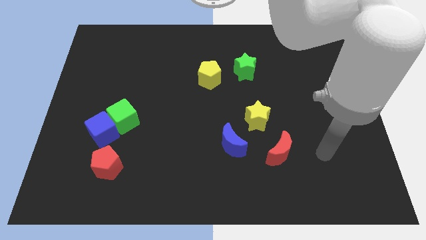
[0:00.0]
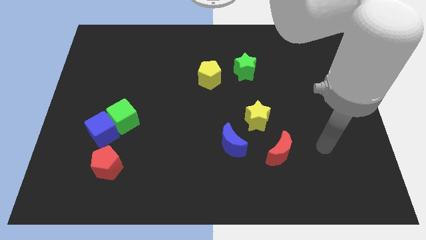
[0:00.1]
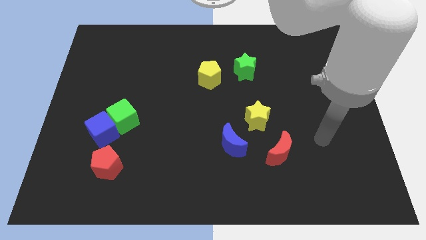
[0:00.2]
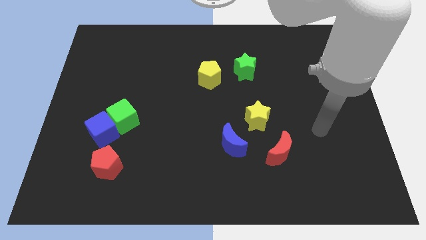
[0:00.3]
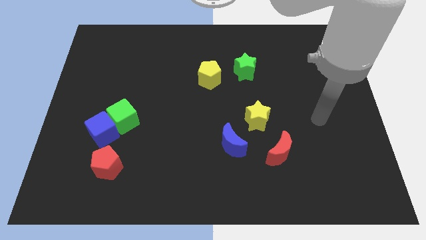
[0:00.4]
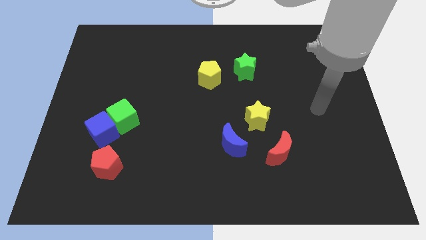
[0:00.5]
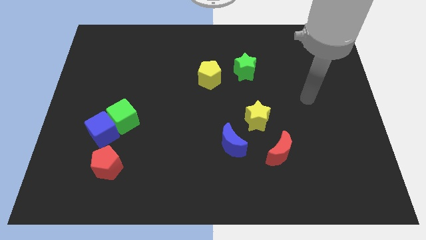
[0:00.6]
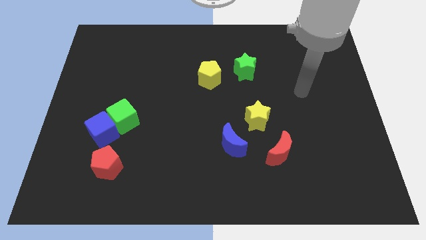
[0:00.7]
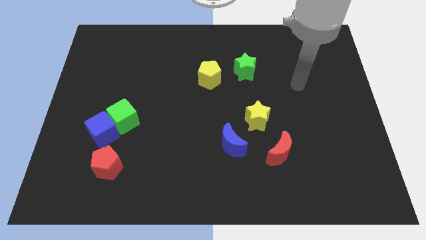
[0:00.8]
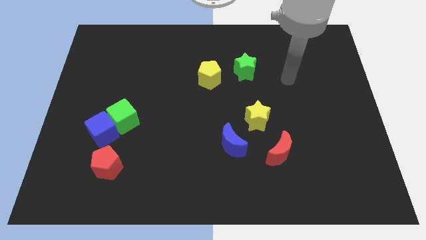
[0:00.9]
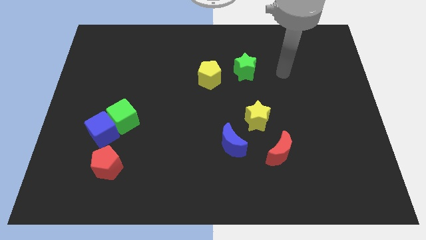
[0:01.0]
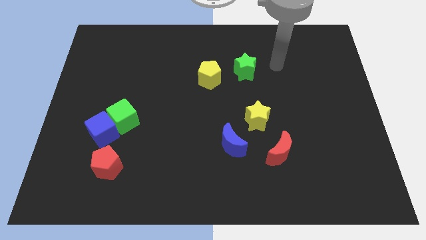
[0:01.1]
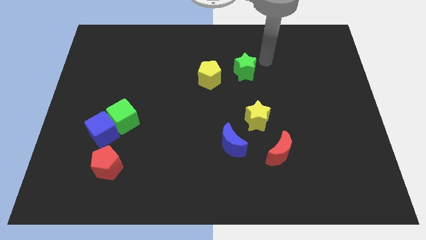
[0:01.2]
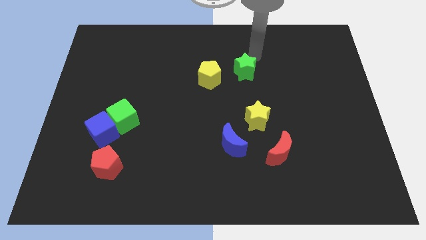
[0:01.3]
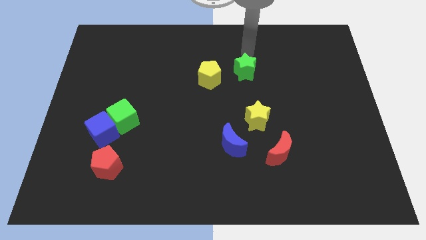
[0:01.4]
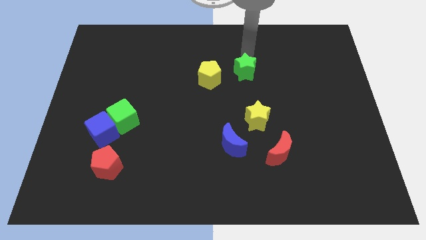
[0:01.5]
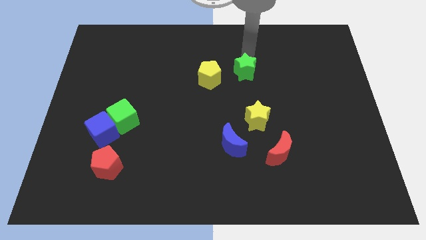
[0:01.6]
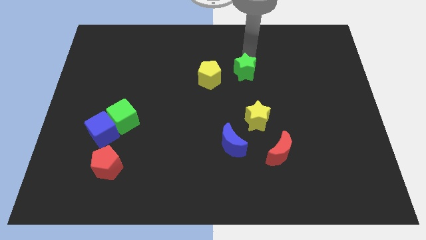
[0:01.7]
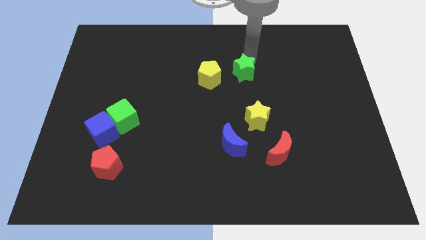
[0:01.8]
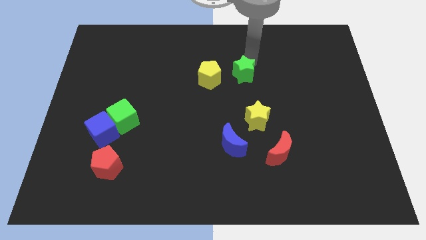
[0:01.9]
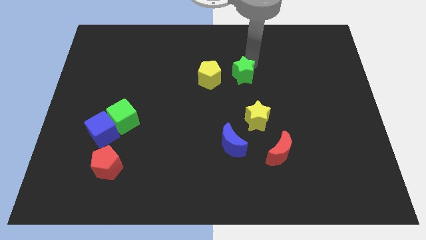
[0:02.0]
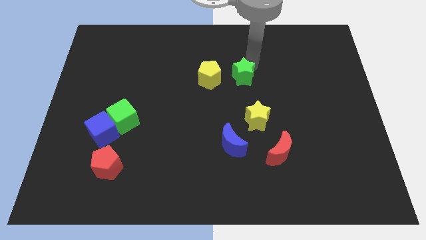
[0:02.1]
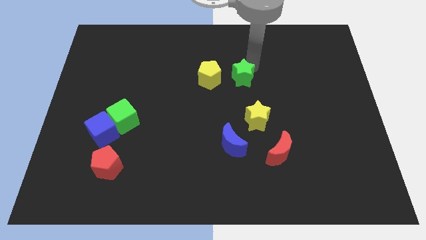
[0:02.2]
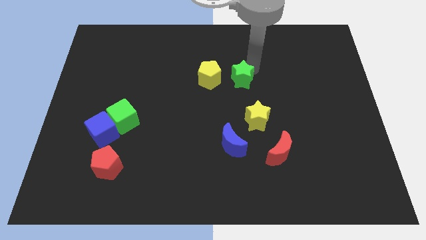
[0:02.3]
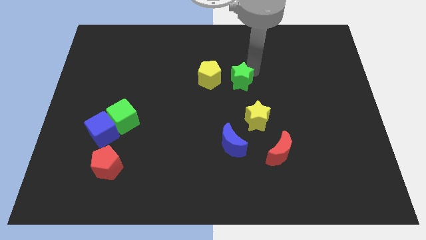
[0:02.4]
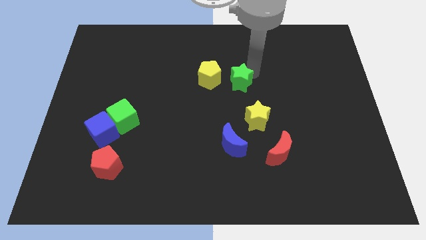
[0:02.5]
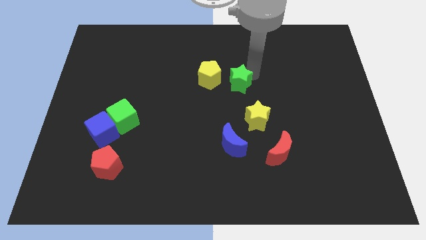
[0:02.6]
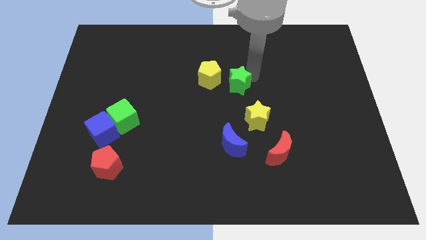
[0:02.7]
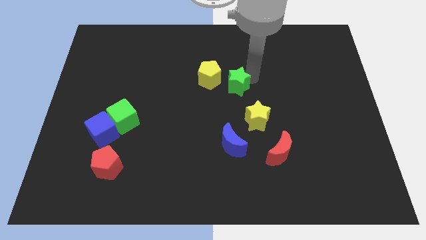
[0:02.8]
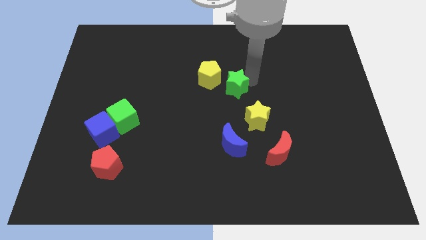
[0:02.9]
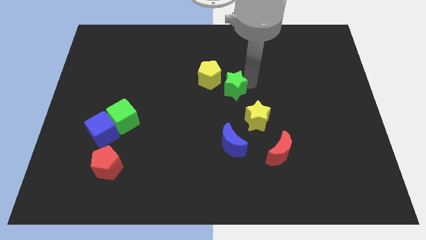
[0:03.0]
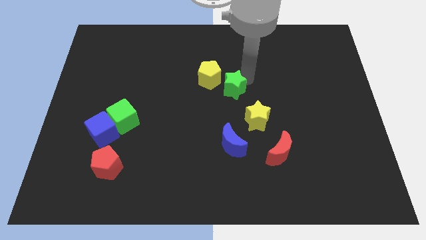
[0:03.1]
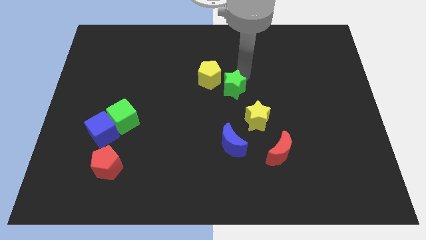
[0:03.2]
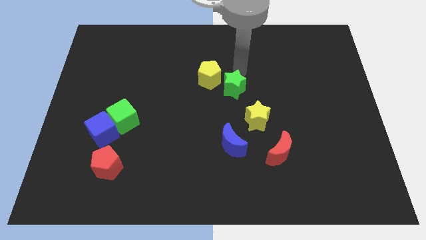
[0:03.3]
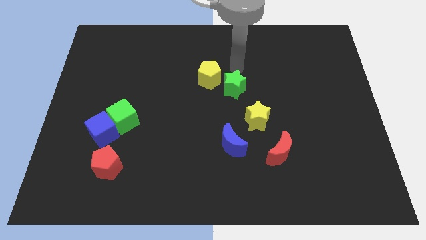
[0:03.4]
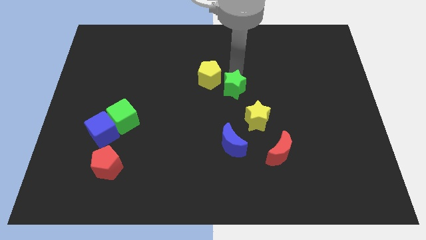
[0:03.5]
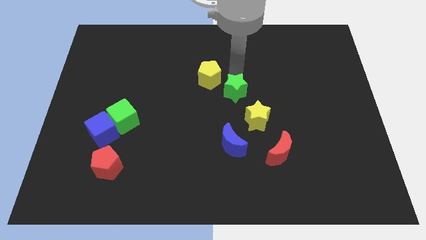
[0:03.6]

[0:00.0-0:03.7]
slide the green star a bit down

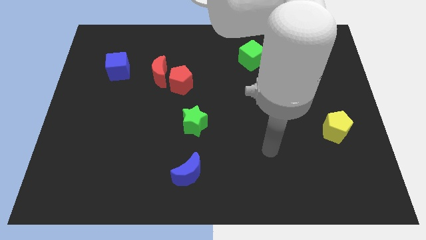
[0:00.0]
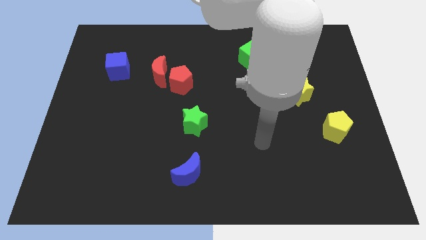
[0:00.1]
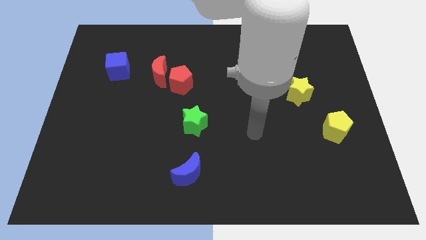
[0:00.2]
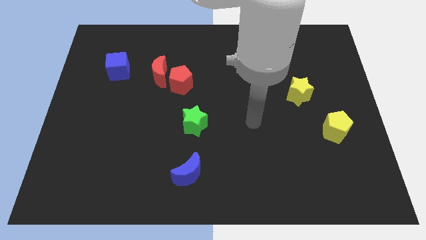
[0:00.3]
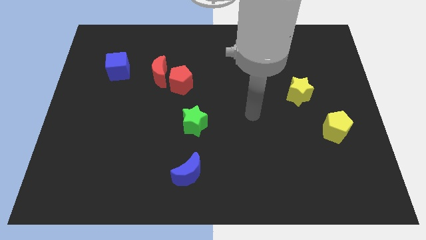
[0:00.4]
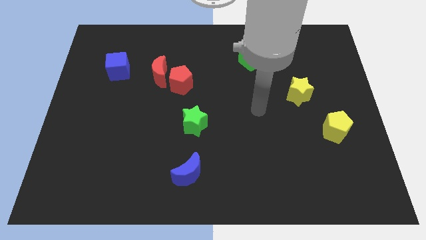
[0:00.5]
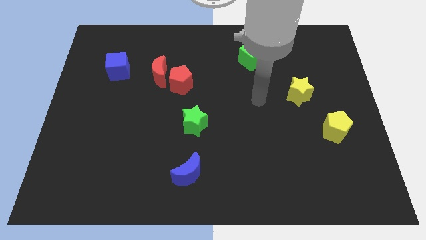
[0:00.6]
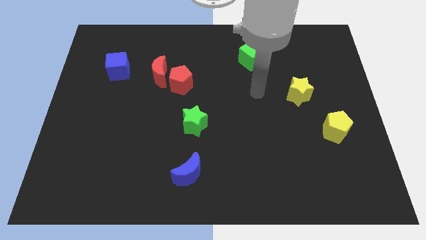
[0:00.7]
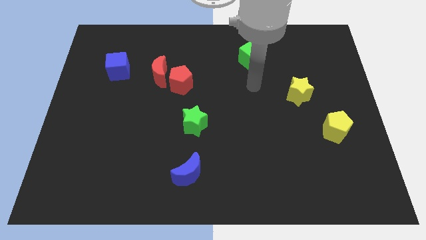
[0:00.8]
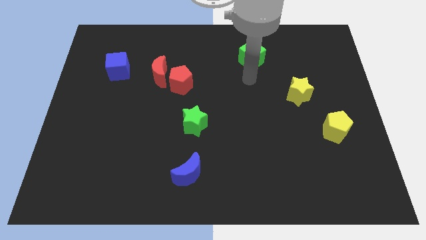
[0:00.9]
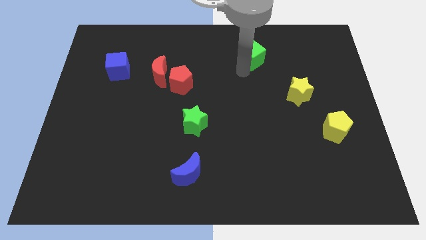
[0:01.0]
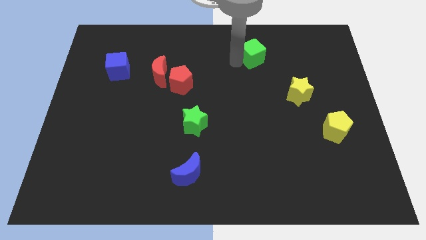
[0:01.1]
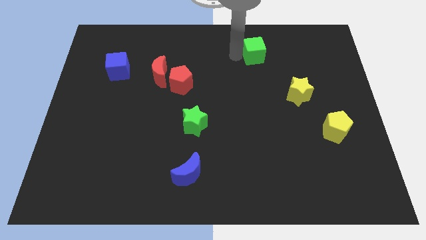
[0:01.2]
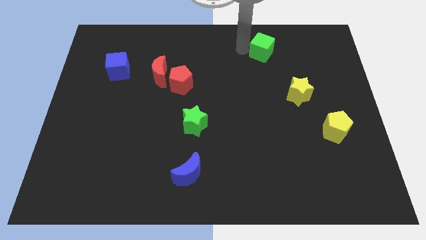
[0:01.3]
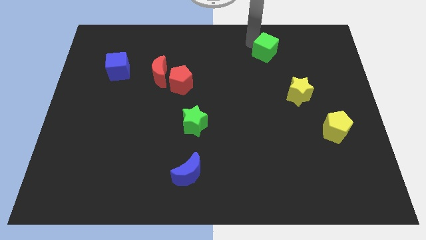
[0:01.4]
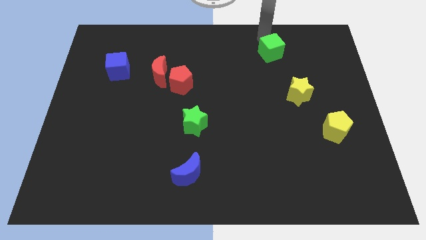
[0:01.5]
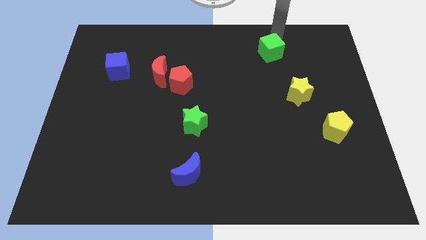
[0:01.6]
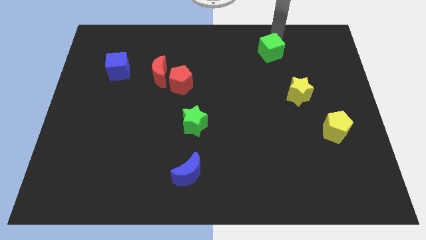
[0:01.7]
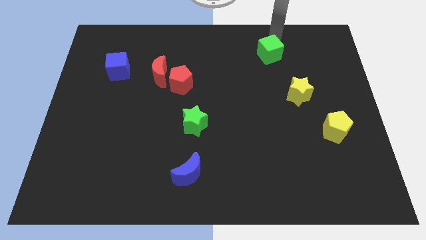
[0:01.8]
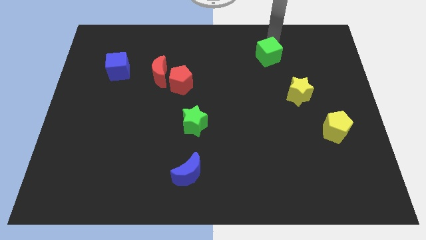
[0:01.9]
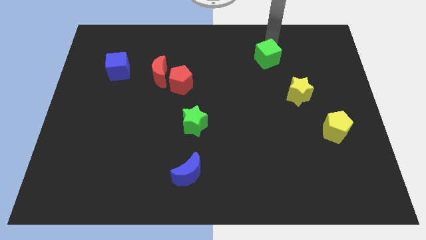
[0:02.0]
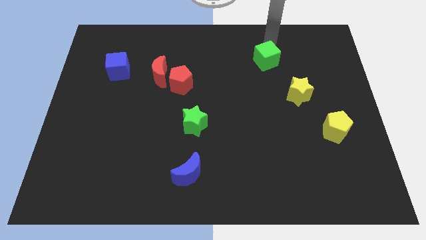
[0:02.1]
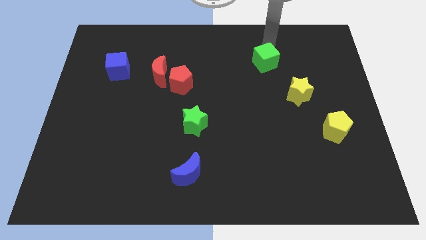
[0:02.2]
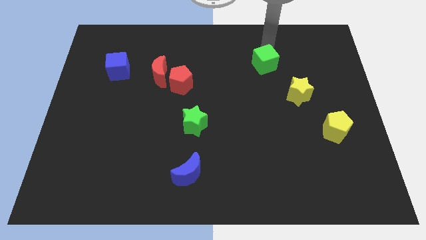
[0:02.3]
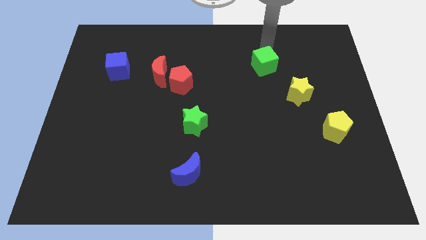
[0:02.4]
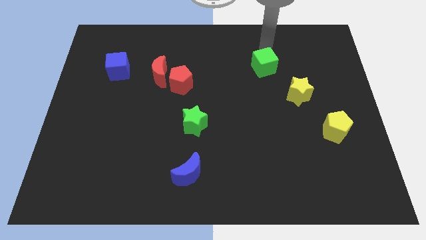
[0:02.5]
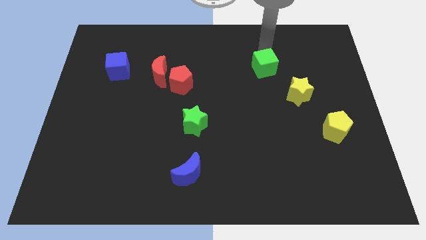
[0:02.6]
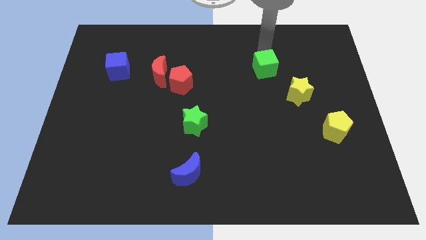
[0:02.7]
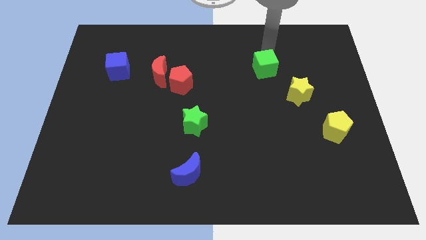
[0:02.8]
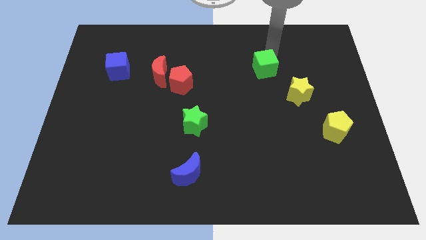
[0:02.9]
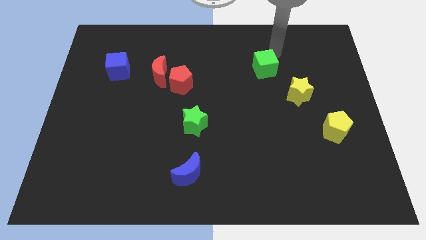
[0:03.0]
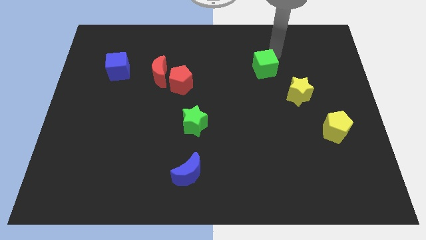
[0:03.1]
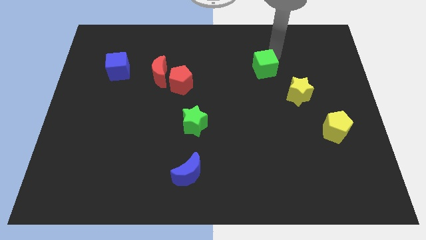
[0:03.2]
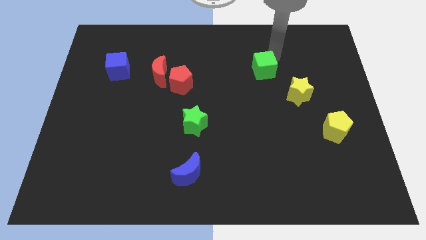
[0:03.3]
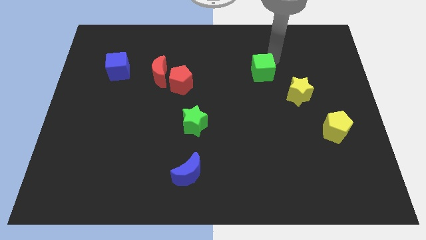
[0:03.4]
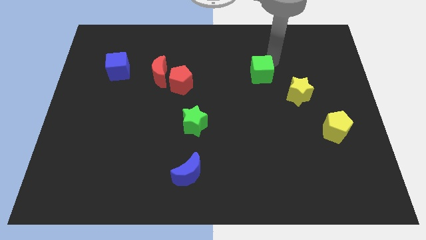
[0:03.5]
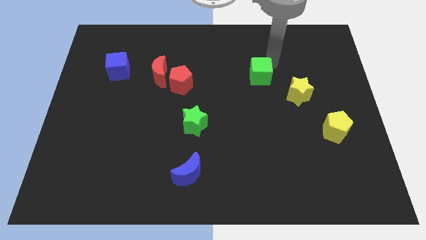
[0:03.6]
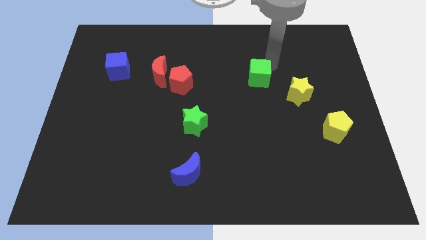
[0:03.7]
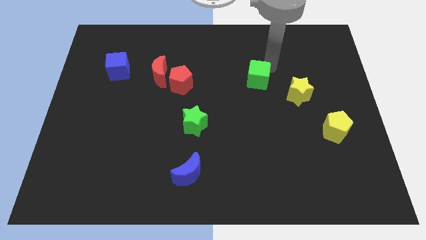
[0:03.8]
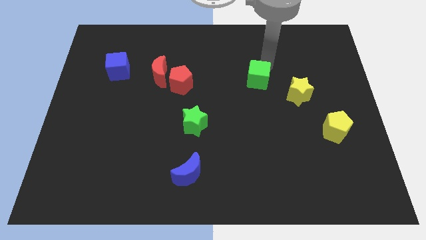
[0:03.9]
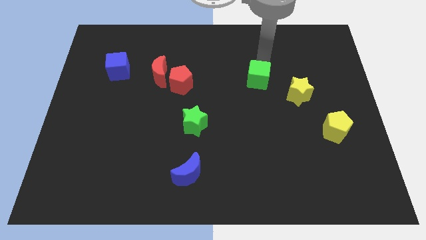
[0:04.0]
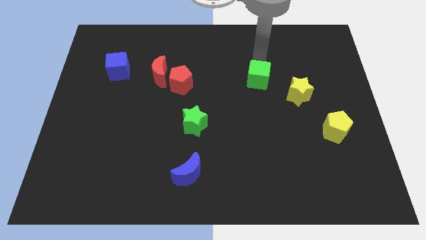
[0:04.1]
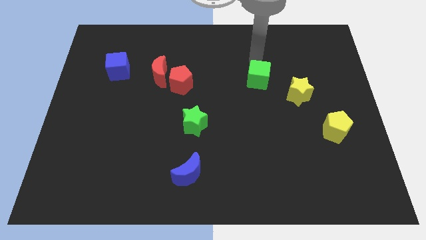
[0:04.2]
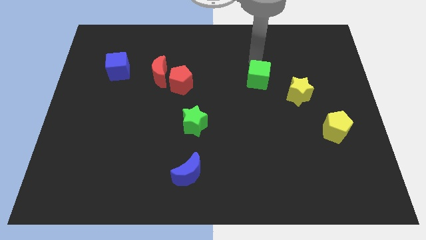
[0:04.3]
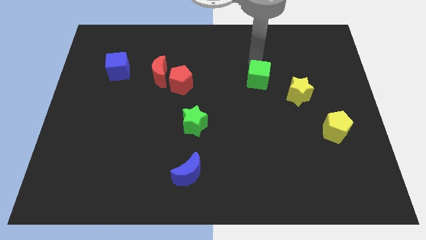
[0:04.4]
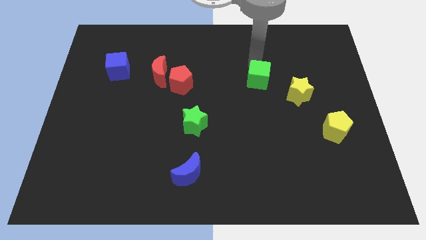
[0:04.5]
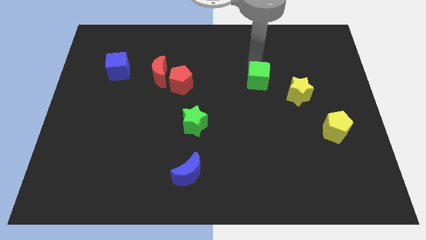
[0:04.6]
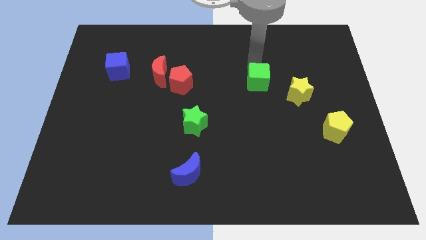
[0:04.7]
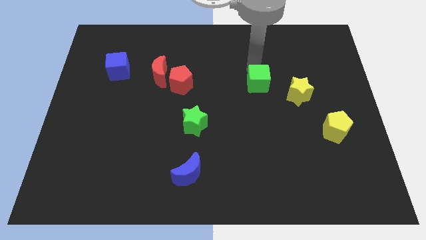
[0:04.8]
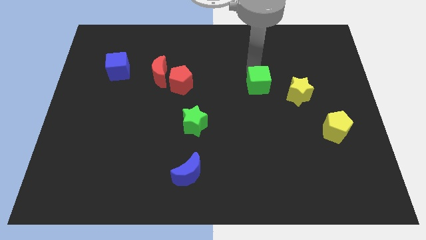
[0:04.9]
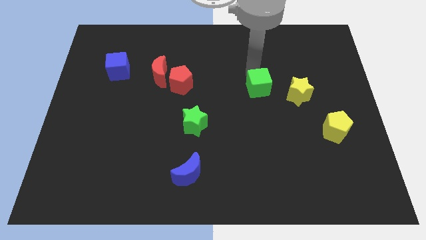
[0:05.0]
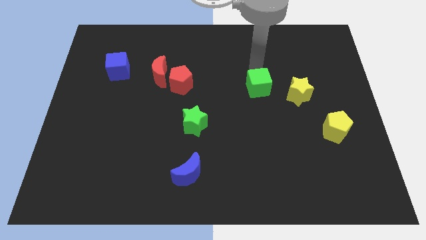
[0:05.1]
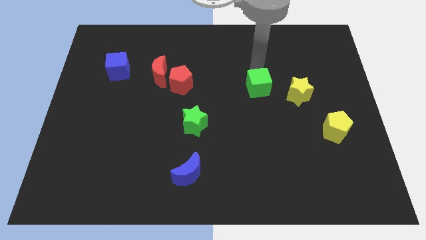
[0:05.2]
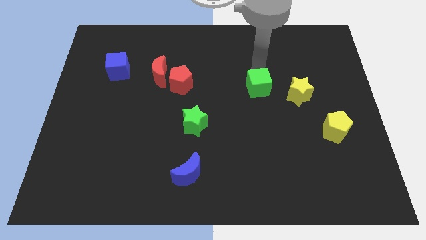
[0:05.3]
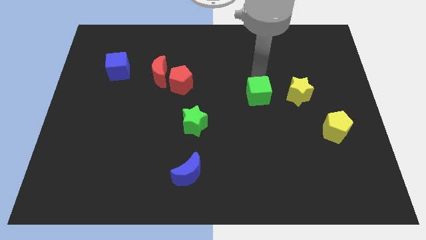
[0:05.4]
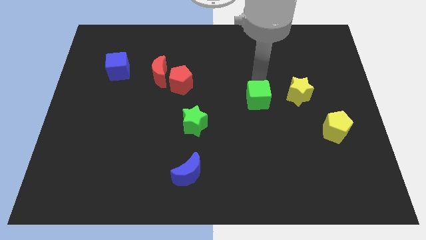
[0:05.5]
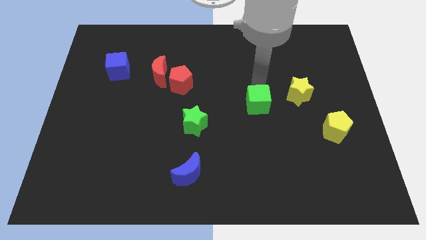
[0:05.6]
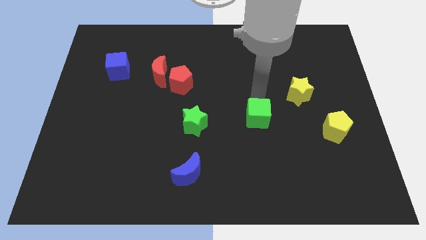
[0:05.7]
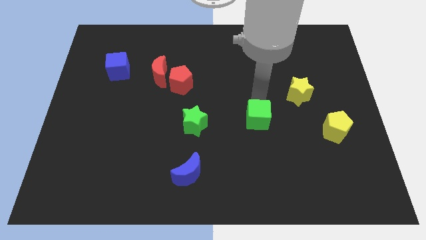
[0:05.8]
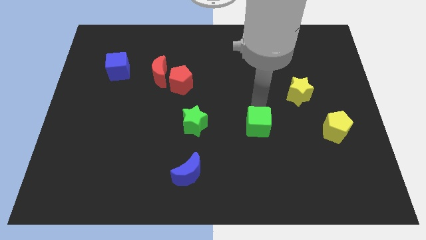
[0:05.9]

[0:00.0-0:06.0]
move the green cube down
